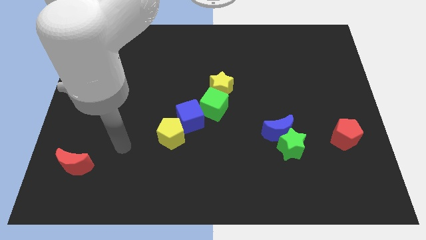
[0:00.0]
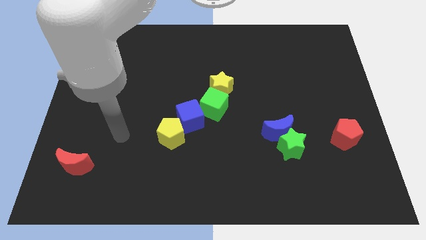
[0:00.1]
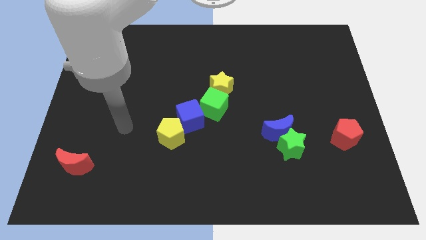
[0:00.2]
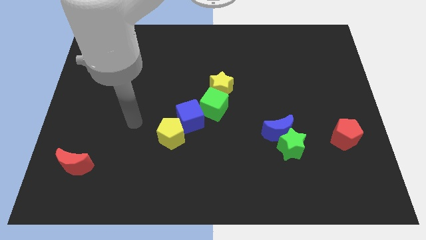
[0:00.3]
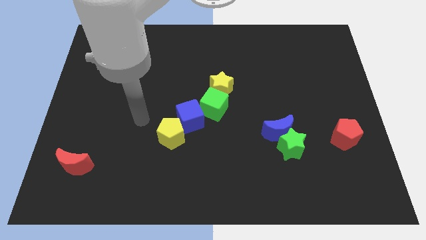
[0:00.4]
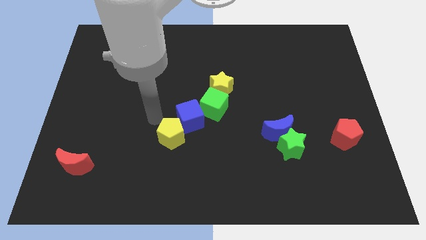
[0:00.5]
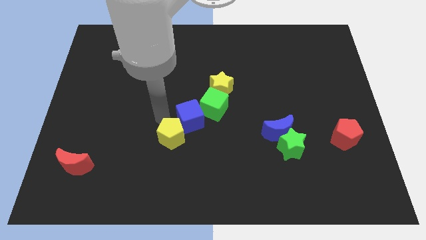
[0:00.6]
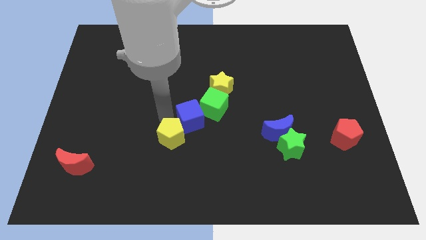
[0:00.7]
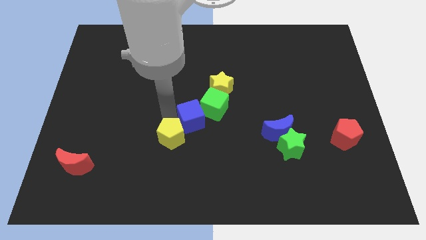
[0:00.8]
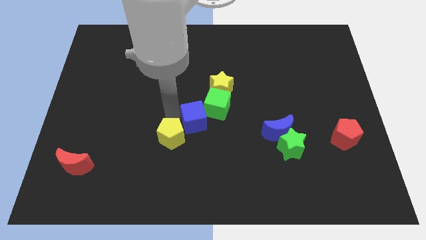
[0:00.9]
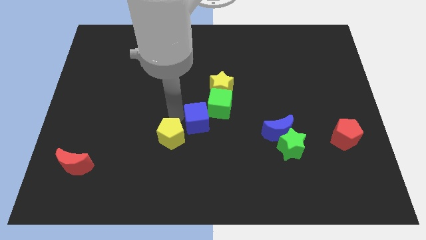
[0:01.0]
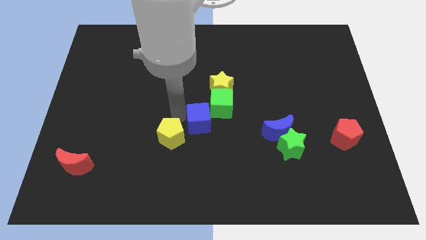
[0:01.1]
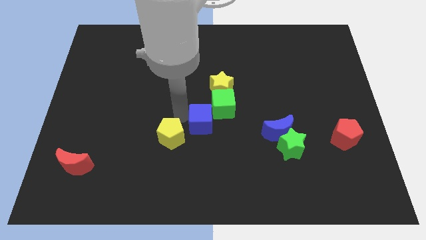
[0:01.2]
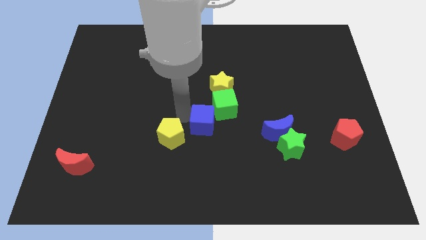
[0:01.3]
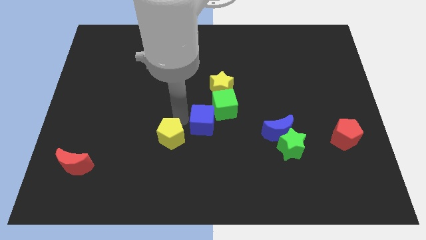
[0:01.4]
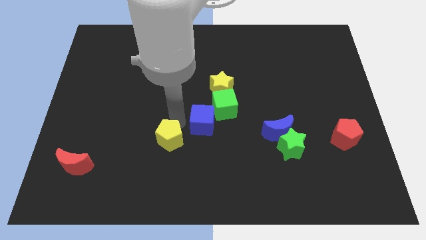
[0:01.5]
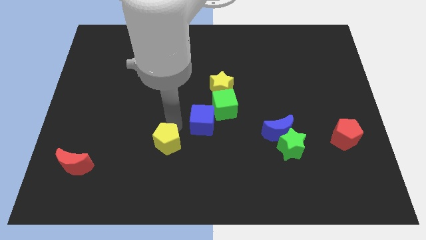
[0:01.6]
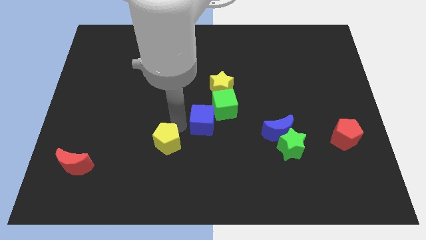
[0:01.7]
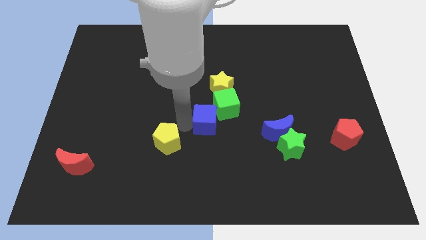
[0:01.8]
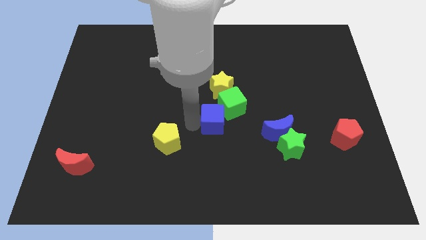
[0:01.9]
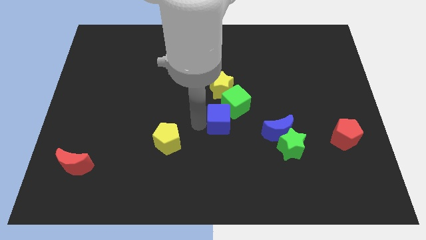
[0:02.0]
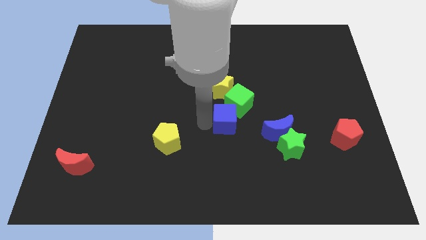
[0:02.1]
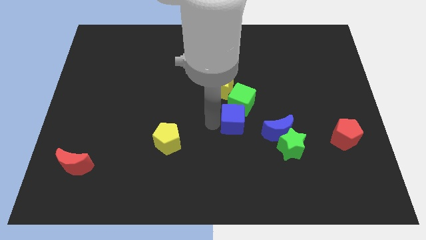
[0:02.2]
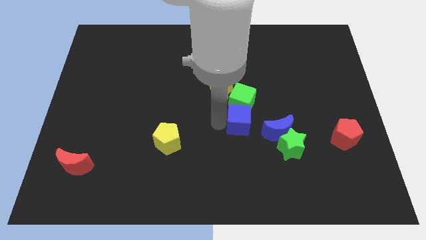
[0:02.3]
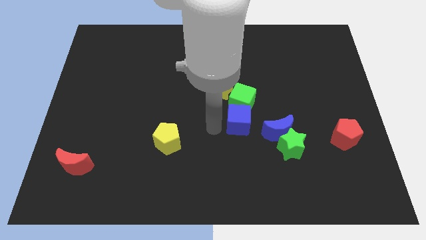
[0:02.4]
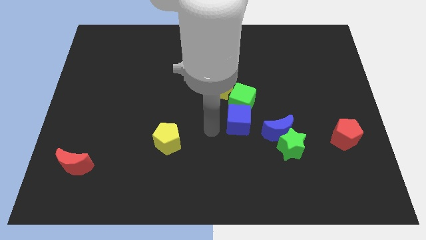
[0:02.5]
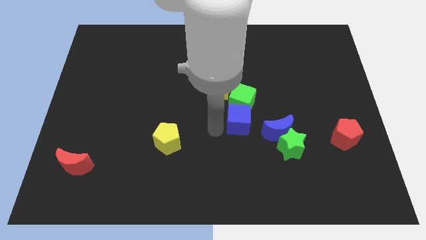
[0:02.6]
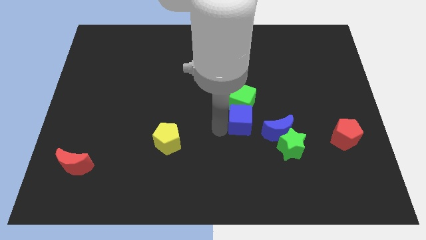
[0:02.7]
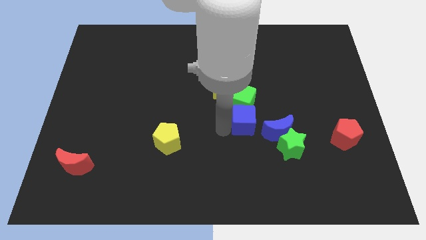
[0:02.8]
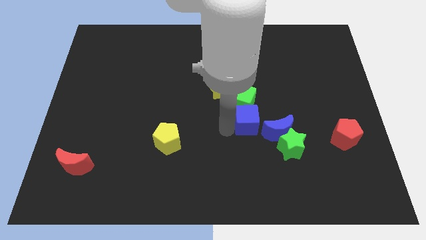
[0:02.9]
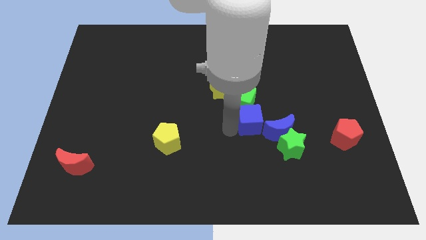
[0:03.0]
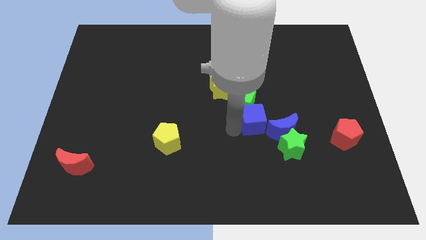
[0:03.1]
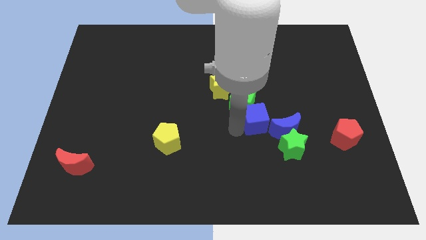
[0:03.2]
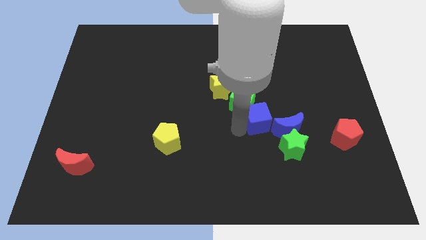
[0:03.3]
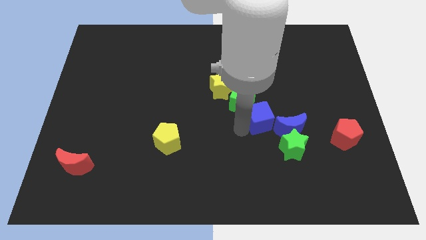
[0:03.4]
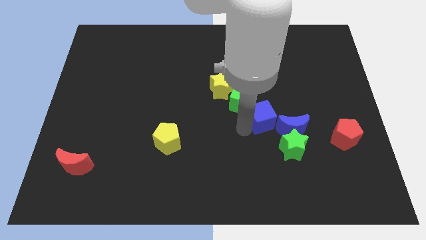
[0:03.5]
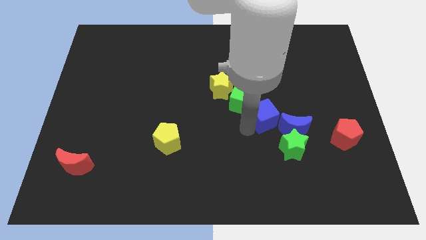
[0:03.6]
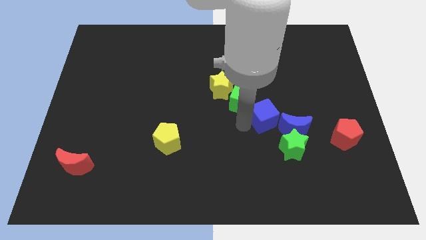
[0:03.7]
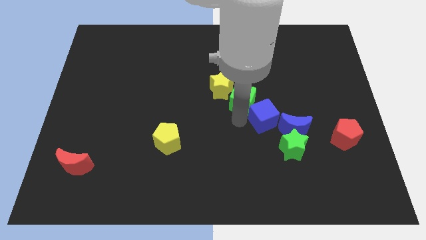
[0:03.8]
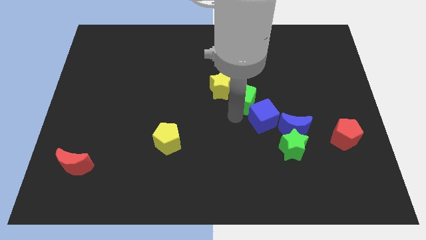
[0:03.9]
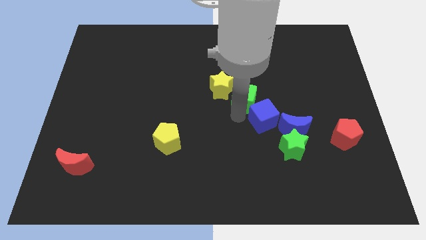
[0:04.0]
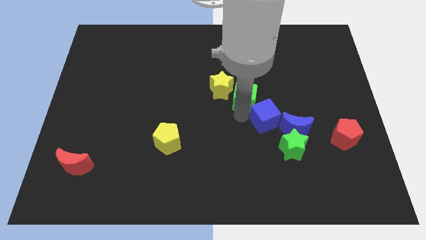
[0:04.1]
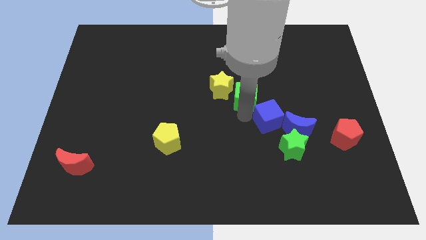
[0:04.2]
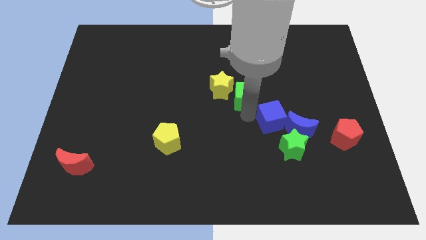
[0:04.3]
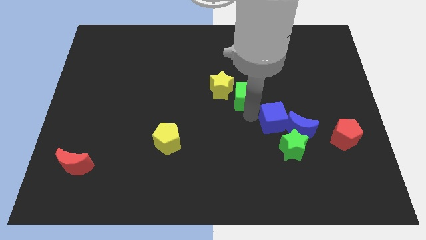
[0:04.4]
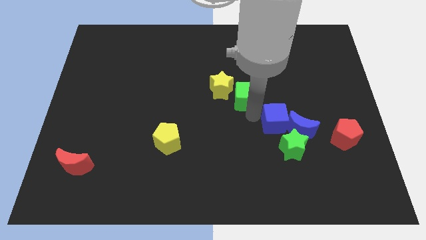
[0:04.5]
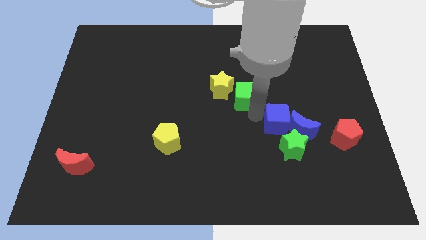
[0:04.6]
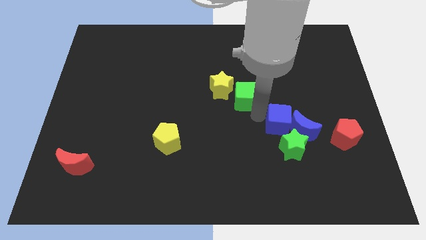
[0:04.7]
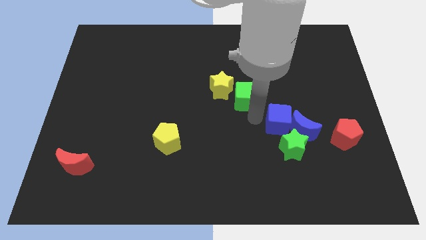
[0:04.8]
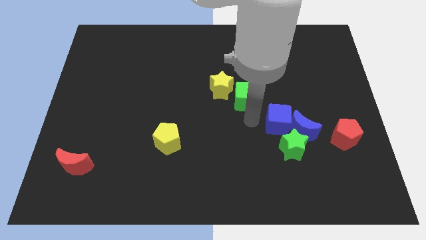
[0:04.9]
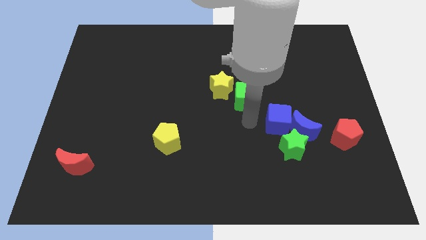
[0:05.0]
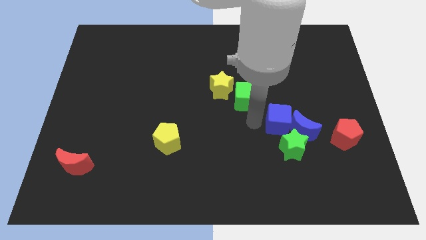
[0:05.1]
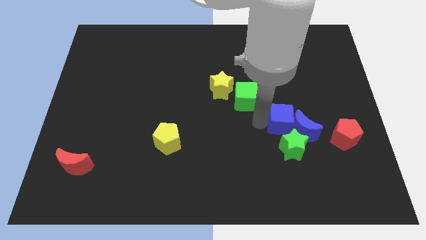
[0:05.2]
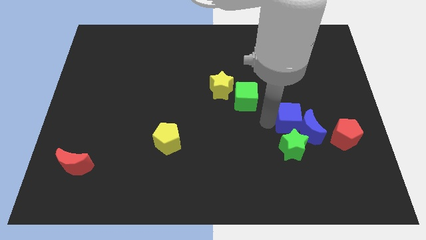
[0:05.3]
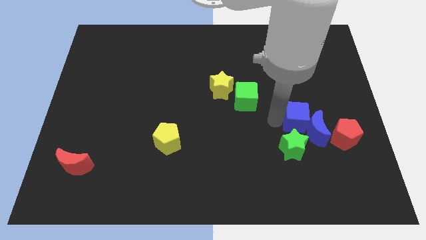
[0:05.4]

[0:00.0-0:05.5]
put the blue cube to the top right of the green star

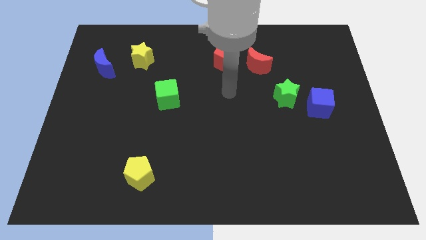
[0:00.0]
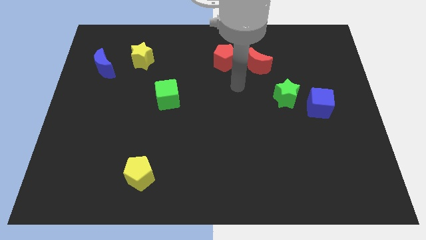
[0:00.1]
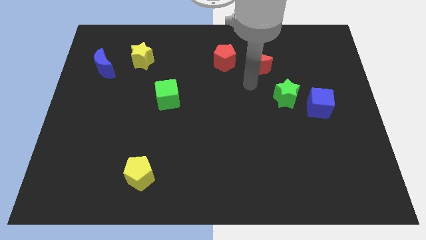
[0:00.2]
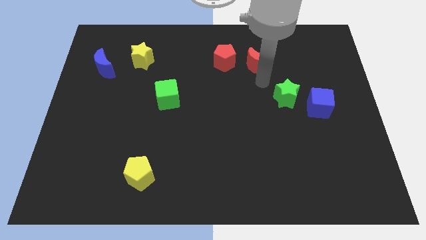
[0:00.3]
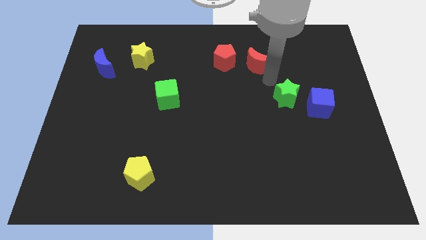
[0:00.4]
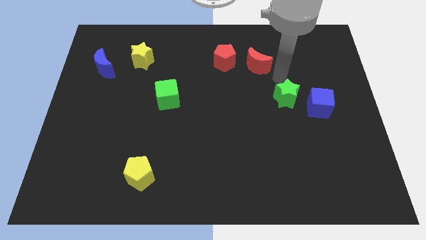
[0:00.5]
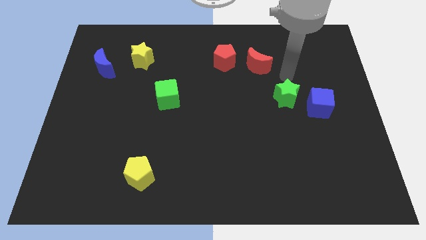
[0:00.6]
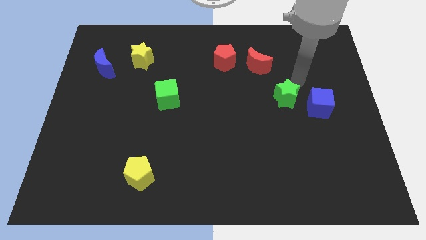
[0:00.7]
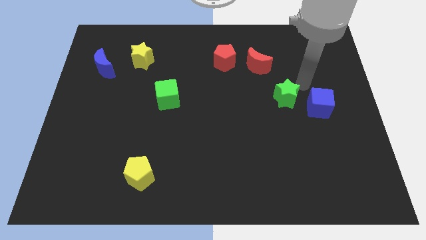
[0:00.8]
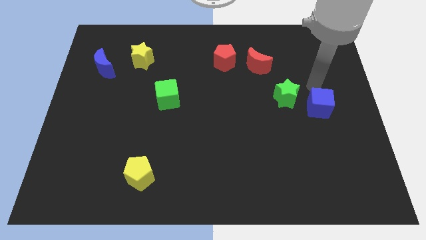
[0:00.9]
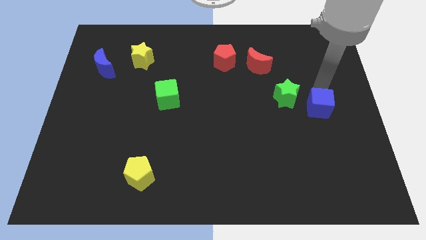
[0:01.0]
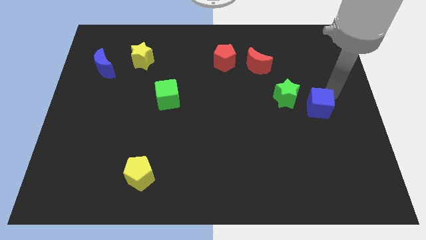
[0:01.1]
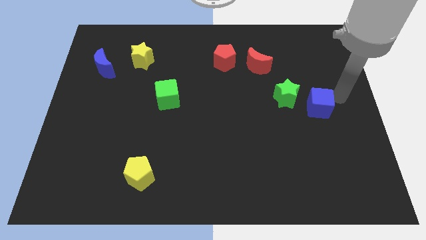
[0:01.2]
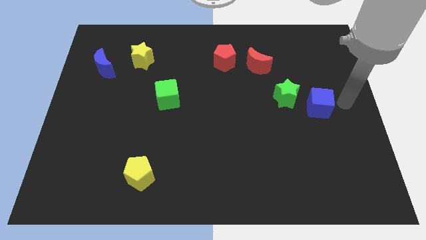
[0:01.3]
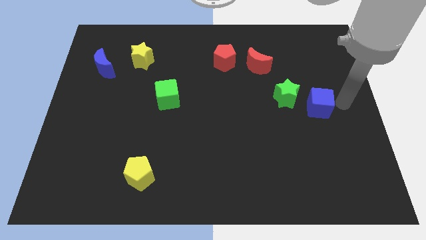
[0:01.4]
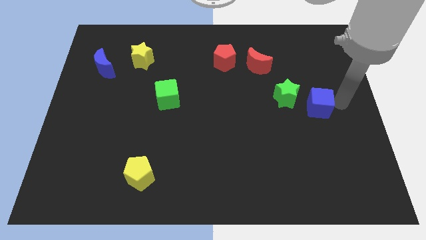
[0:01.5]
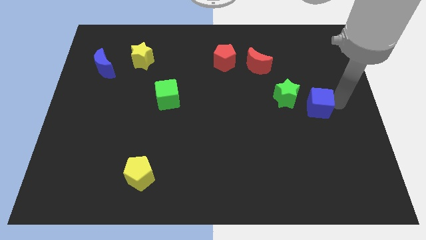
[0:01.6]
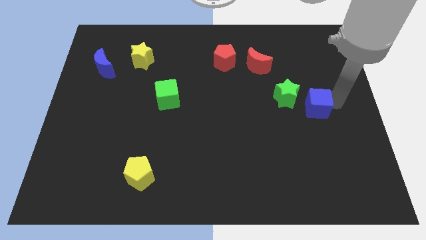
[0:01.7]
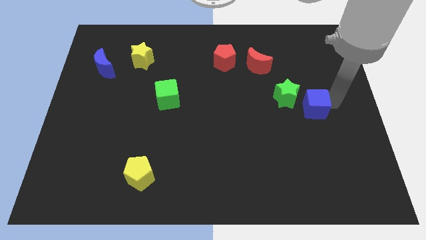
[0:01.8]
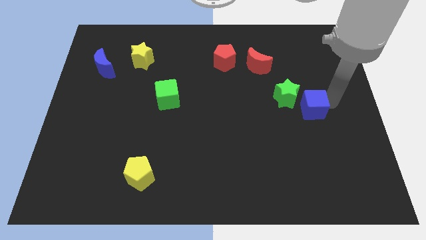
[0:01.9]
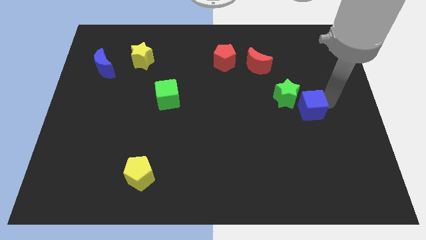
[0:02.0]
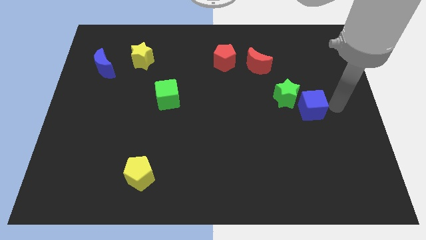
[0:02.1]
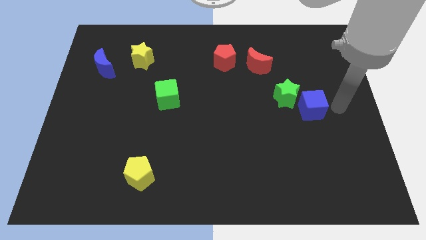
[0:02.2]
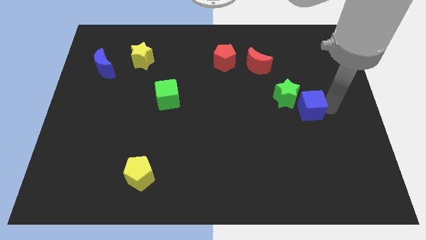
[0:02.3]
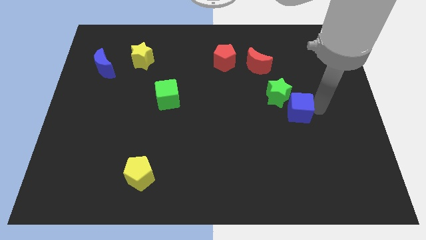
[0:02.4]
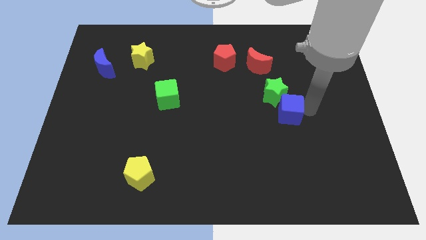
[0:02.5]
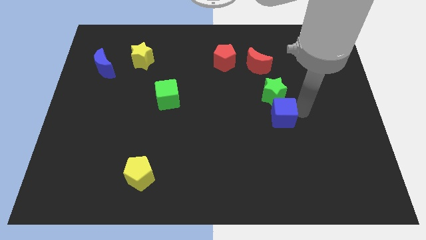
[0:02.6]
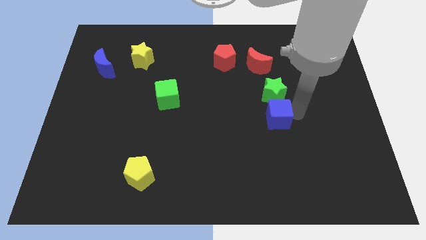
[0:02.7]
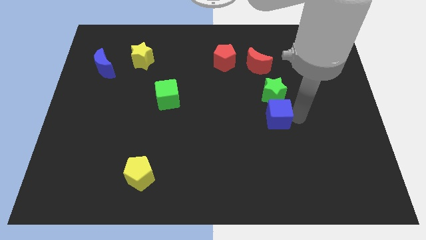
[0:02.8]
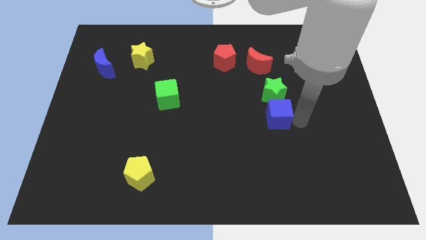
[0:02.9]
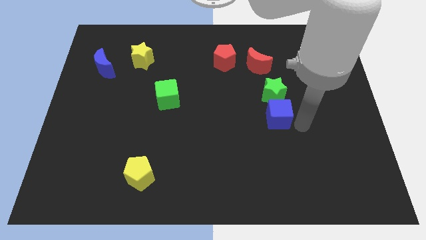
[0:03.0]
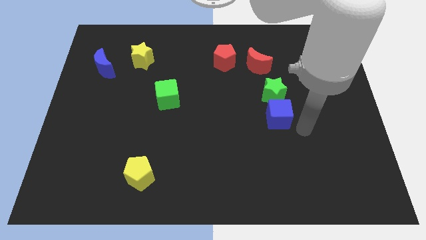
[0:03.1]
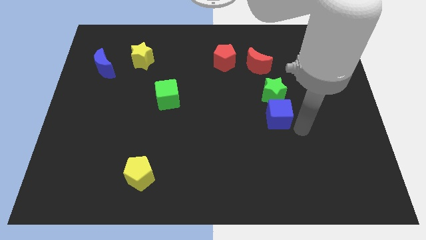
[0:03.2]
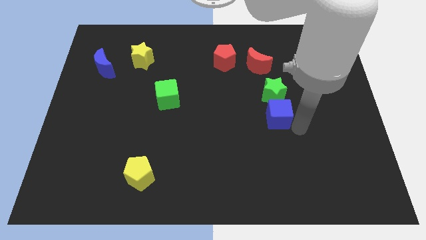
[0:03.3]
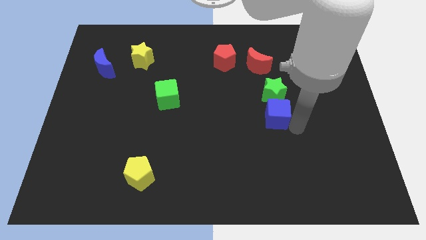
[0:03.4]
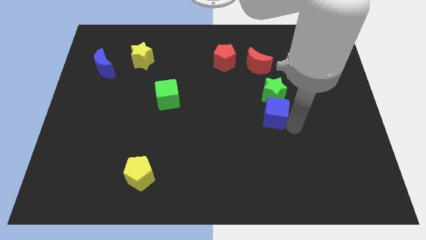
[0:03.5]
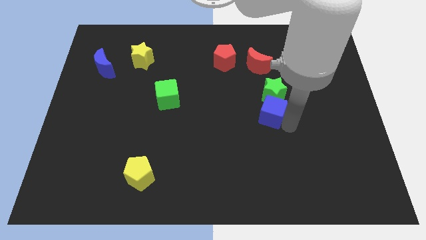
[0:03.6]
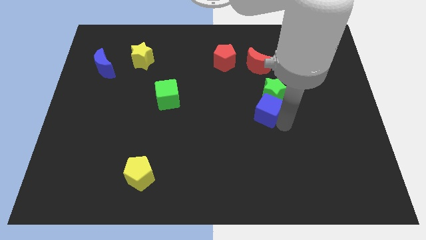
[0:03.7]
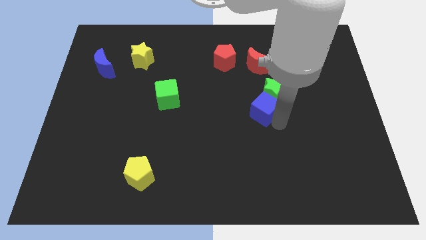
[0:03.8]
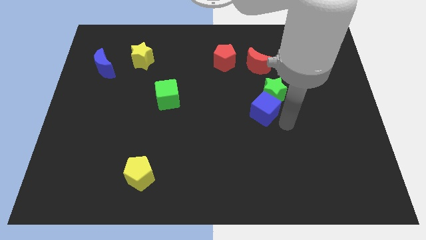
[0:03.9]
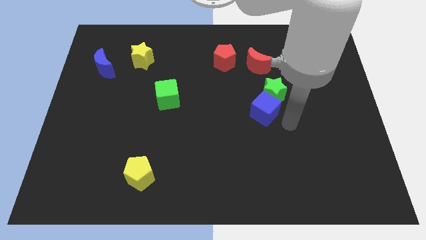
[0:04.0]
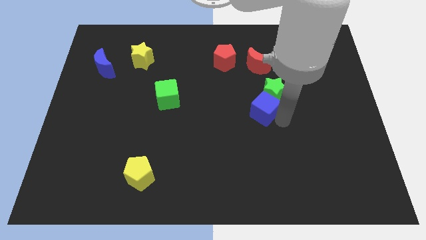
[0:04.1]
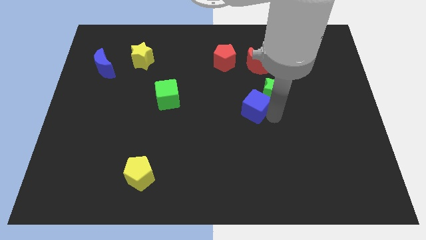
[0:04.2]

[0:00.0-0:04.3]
put the blue cube to the left side of the green star
